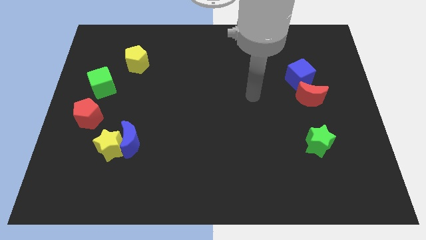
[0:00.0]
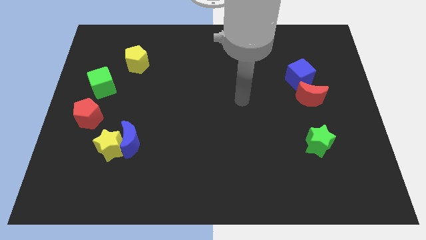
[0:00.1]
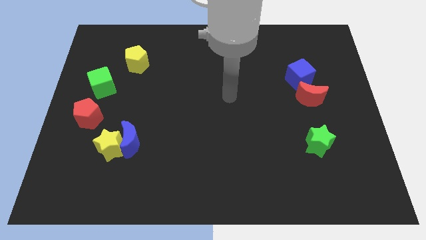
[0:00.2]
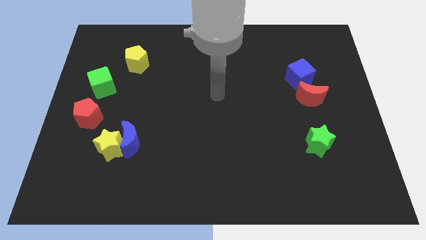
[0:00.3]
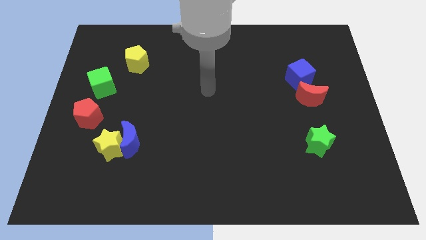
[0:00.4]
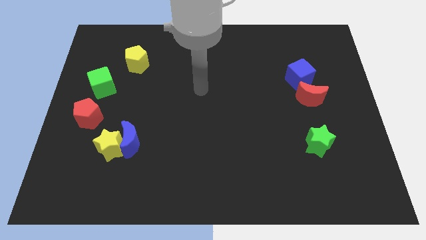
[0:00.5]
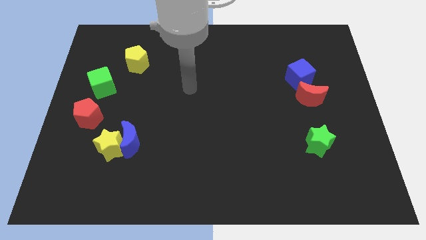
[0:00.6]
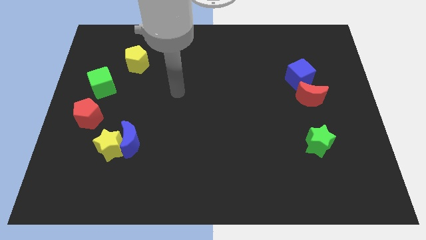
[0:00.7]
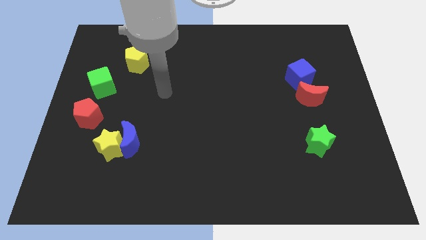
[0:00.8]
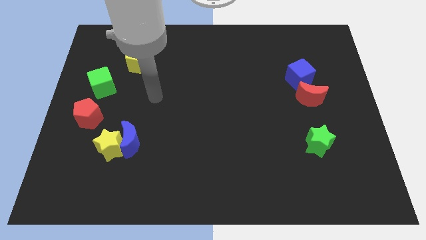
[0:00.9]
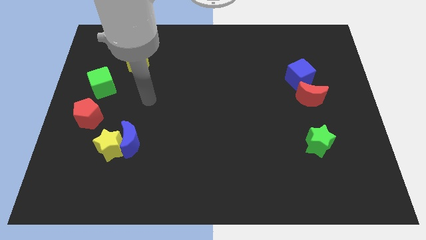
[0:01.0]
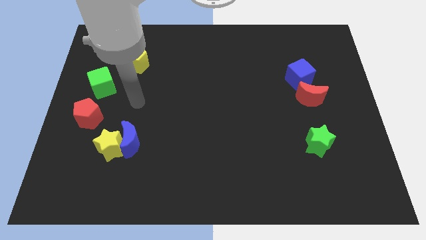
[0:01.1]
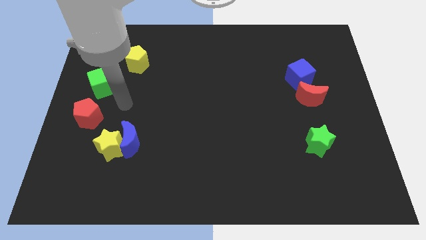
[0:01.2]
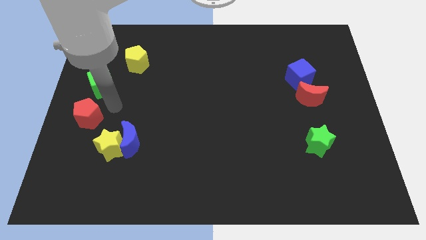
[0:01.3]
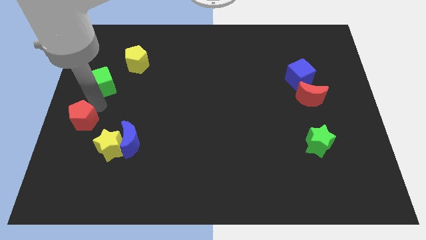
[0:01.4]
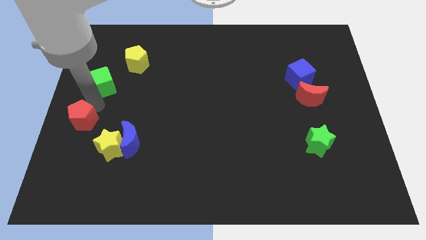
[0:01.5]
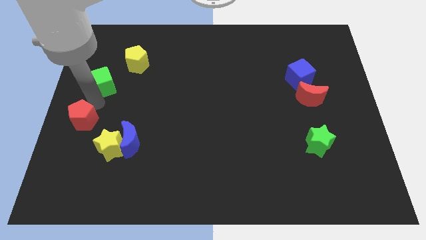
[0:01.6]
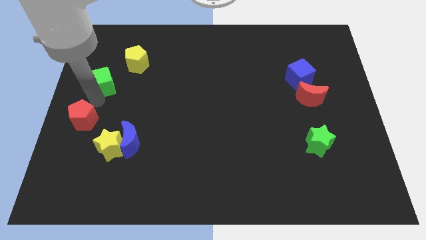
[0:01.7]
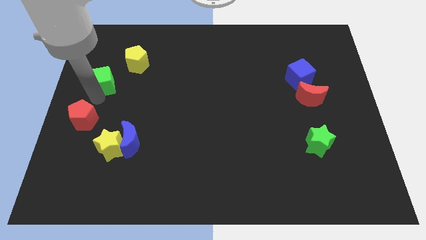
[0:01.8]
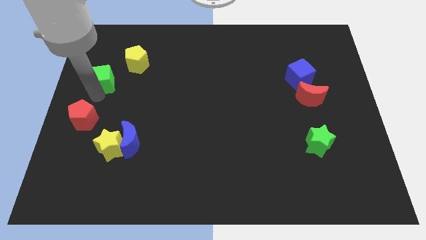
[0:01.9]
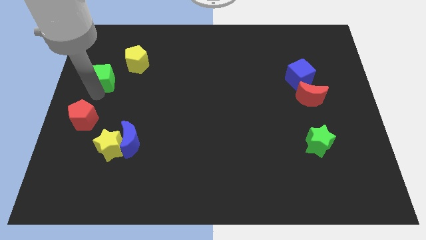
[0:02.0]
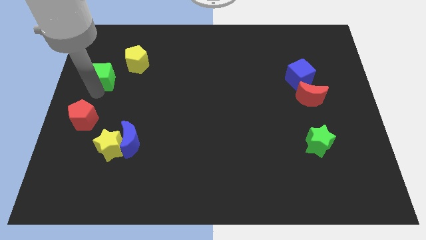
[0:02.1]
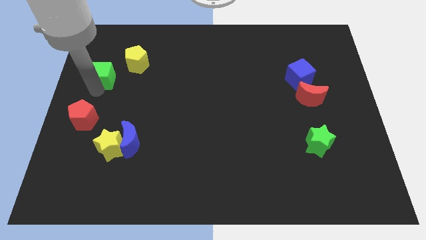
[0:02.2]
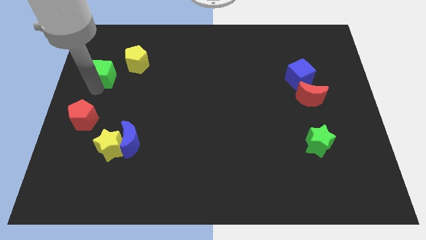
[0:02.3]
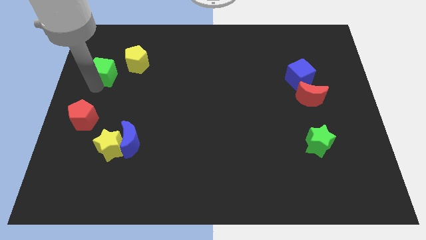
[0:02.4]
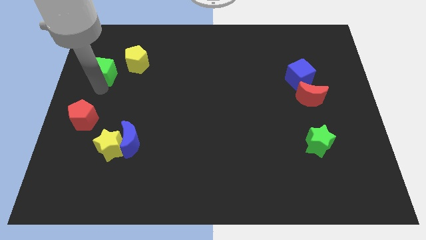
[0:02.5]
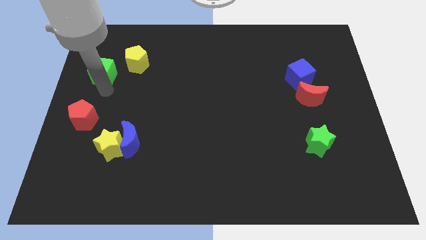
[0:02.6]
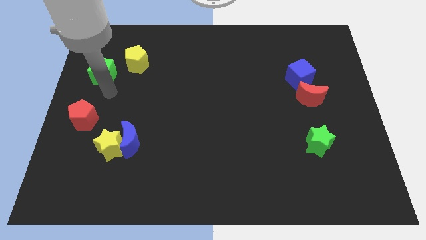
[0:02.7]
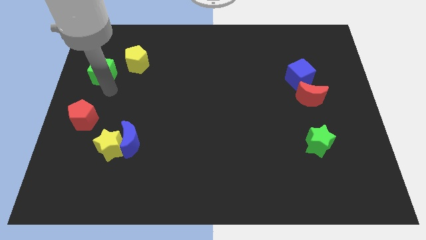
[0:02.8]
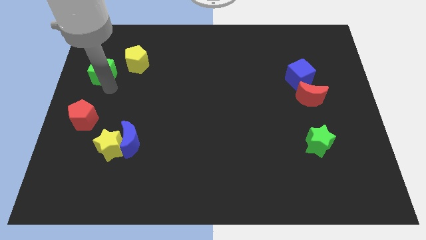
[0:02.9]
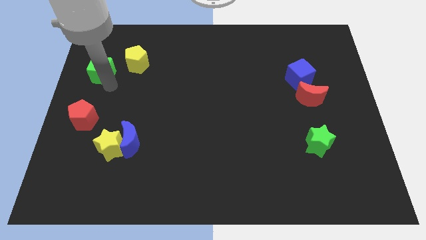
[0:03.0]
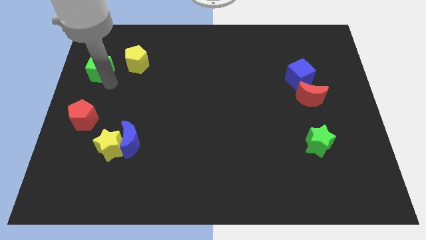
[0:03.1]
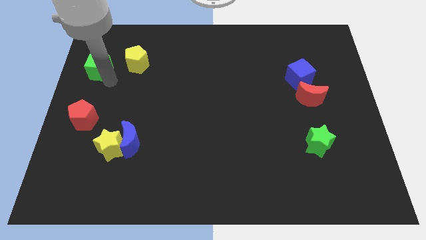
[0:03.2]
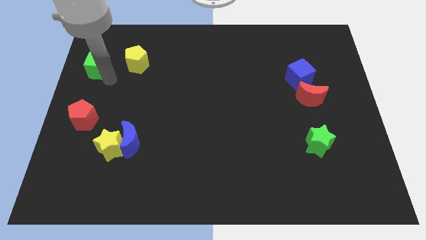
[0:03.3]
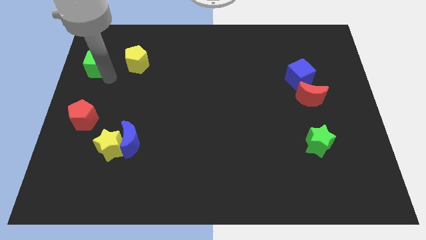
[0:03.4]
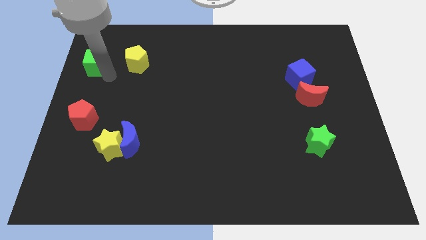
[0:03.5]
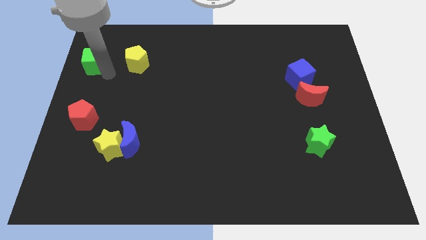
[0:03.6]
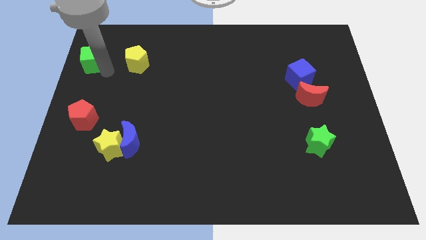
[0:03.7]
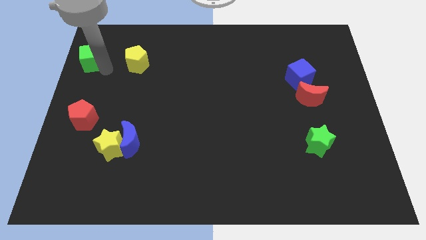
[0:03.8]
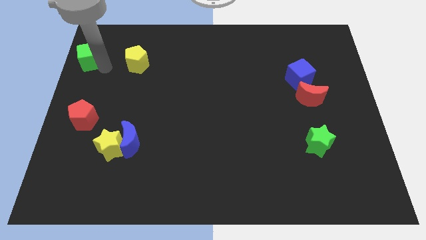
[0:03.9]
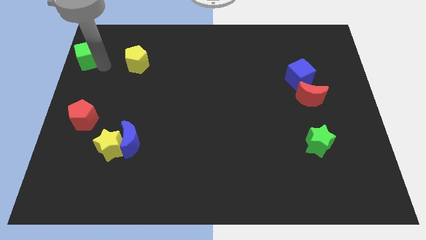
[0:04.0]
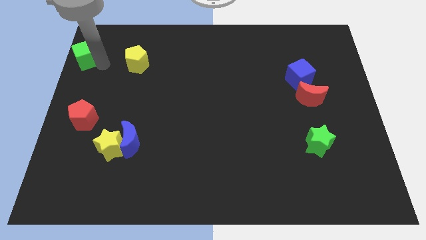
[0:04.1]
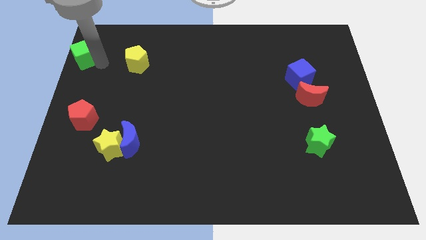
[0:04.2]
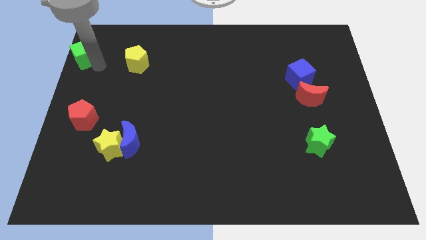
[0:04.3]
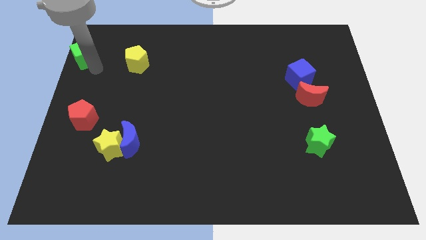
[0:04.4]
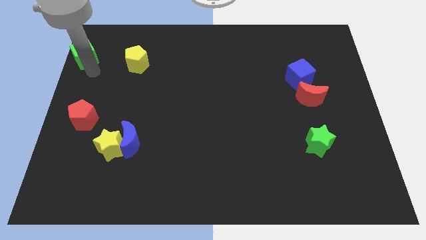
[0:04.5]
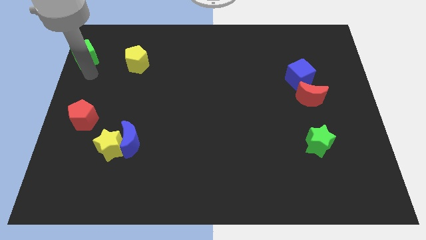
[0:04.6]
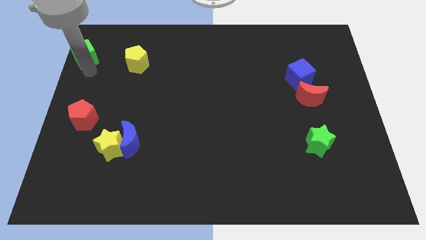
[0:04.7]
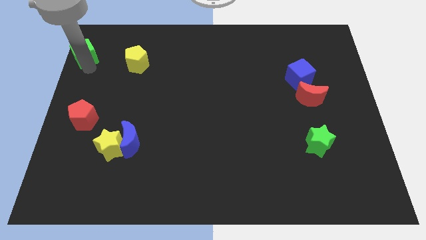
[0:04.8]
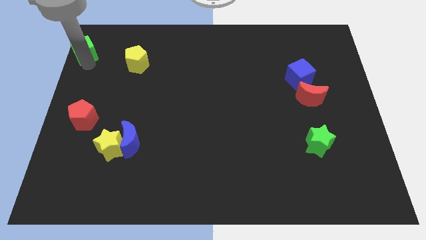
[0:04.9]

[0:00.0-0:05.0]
move the green cube to the top left corner

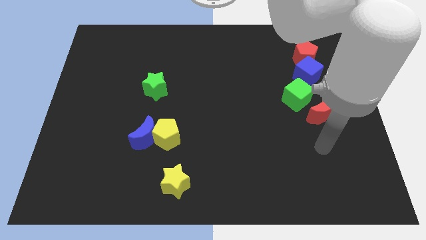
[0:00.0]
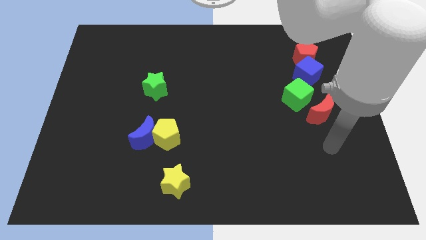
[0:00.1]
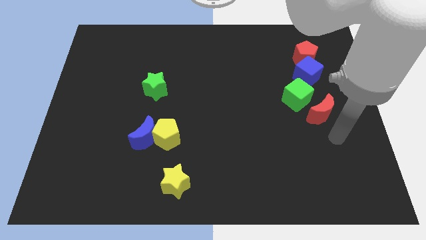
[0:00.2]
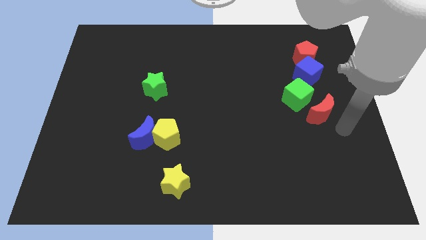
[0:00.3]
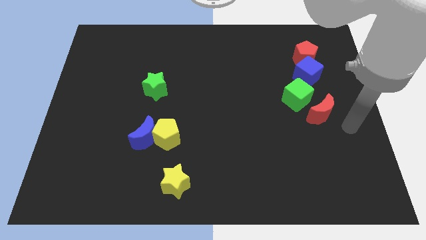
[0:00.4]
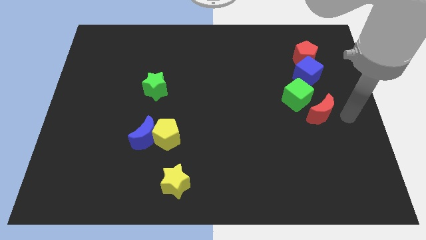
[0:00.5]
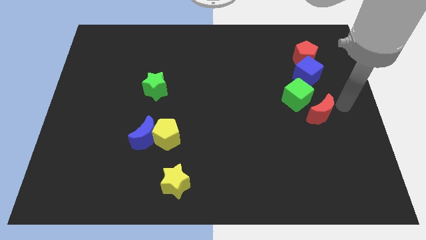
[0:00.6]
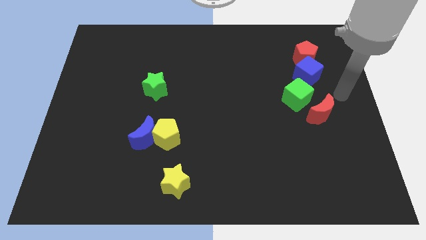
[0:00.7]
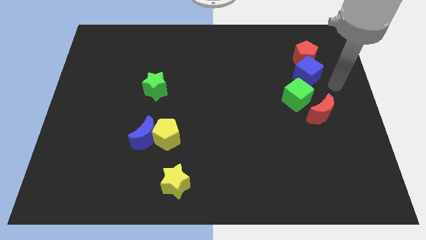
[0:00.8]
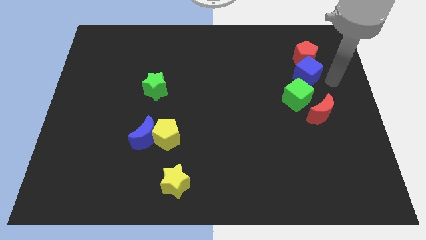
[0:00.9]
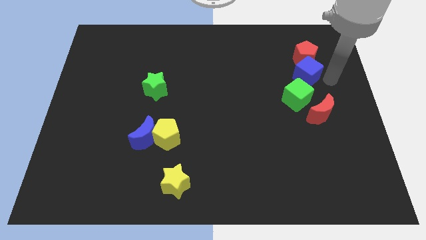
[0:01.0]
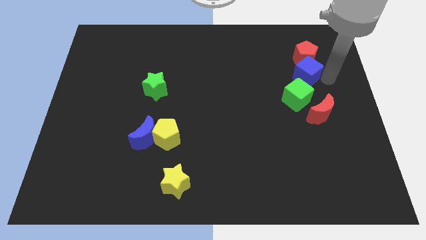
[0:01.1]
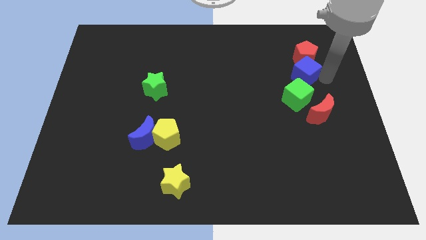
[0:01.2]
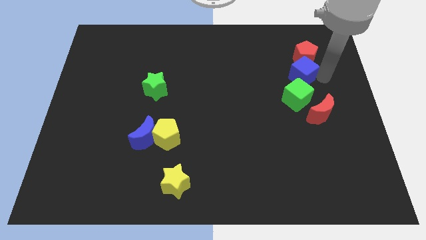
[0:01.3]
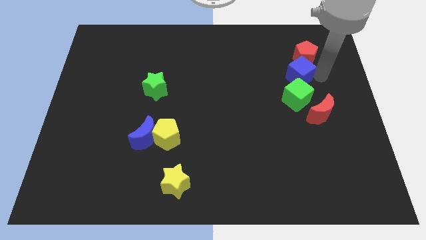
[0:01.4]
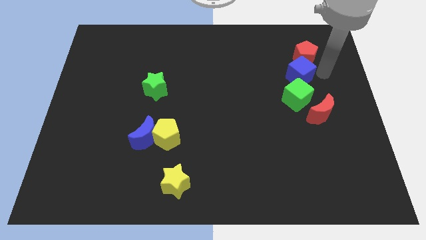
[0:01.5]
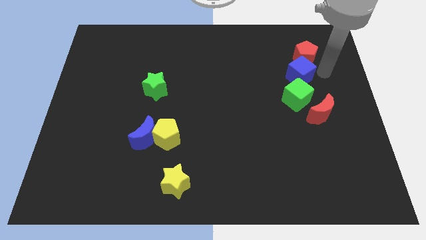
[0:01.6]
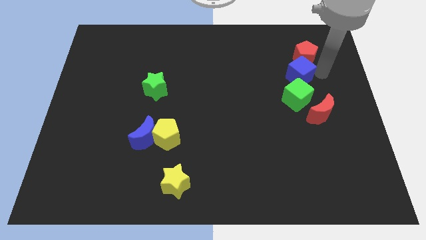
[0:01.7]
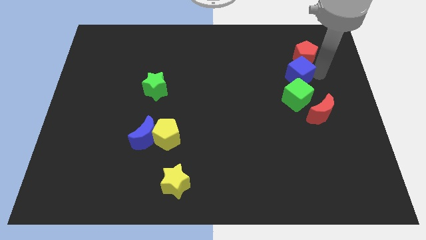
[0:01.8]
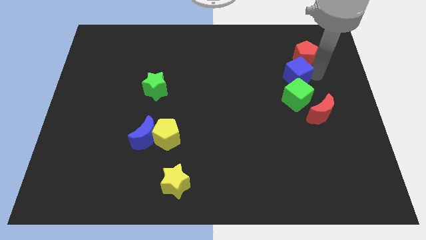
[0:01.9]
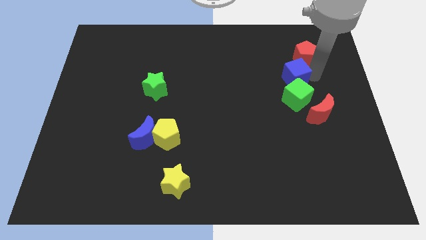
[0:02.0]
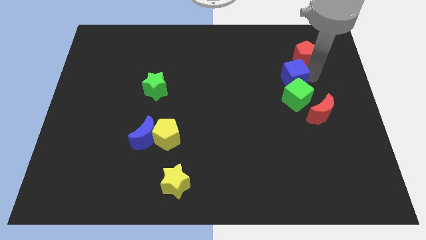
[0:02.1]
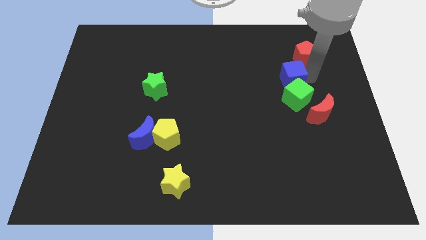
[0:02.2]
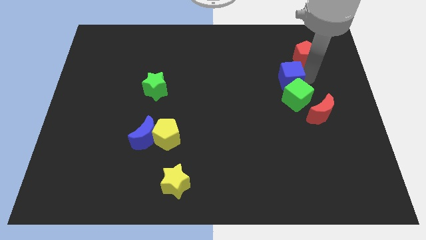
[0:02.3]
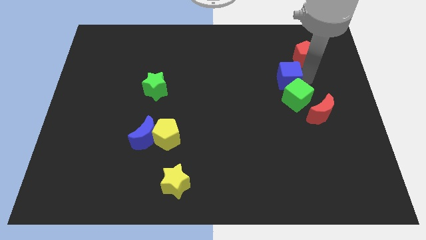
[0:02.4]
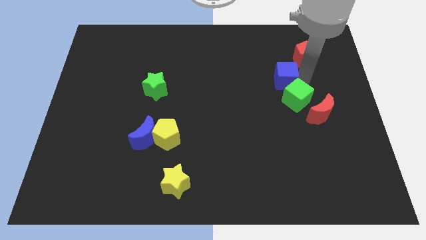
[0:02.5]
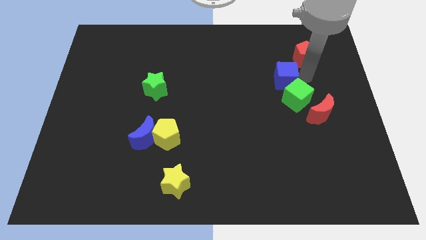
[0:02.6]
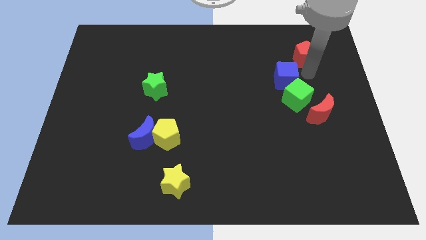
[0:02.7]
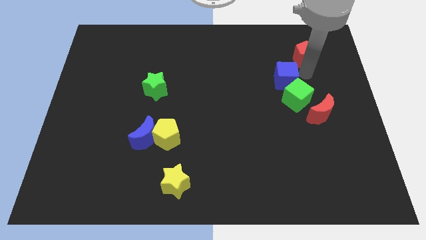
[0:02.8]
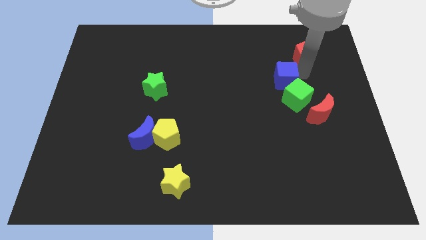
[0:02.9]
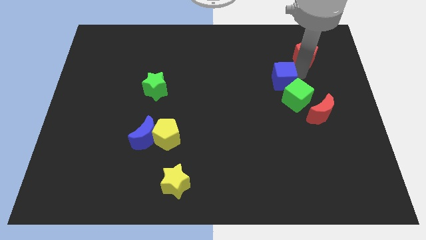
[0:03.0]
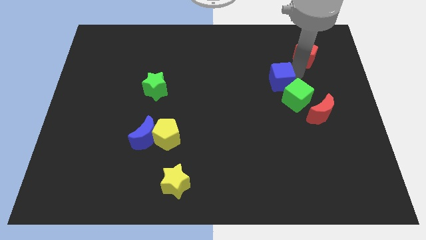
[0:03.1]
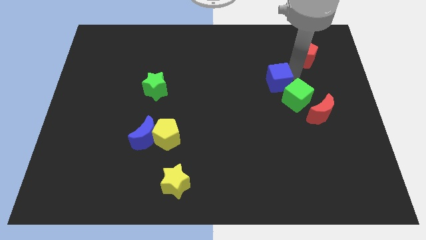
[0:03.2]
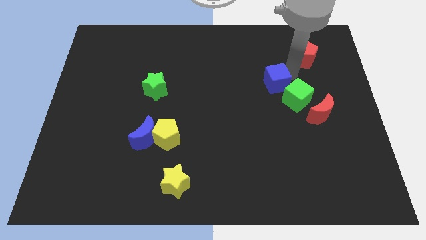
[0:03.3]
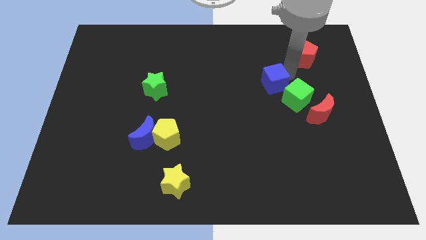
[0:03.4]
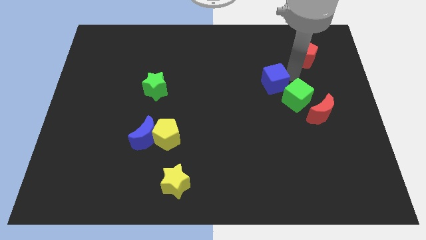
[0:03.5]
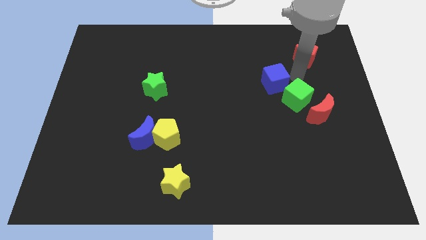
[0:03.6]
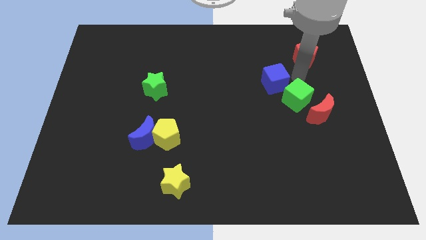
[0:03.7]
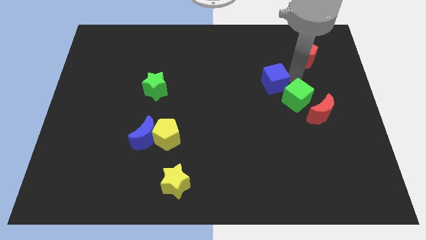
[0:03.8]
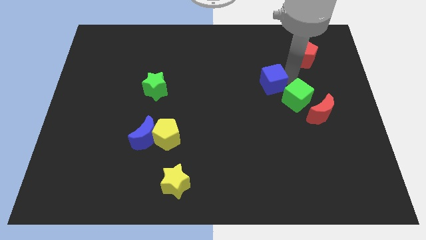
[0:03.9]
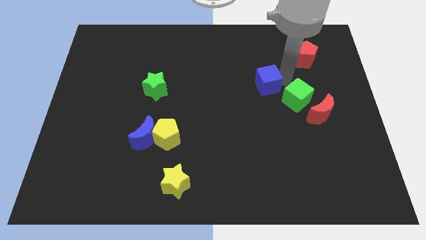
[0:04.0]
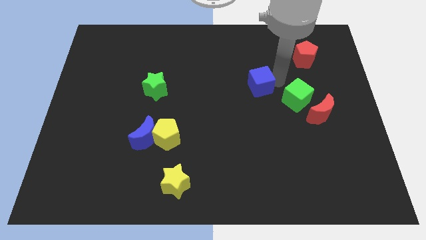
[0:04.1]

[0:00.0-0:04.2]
move the blue cube to the middle of the board
